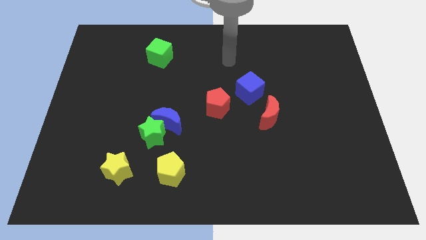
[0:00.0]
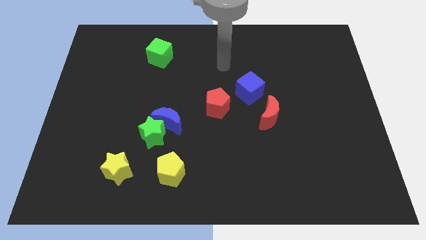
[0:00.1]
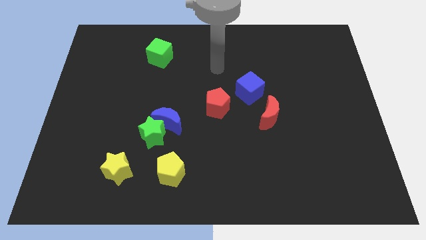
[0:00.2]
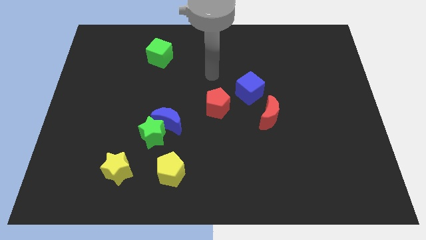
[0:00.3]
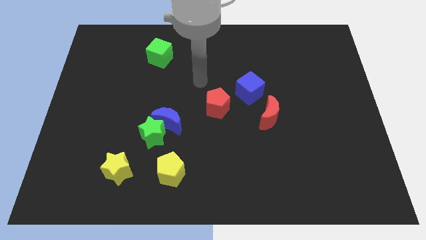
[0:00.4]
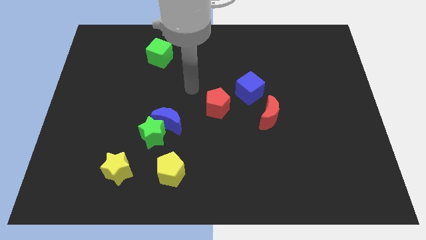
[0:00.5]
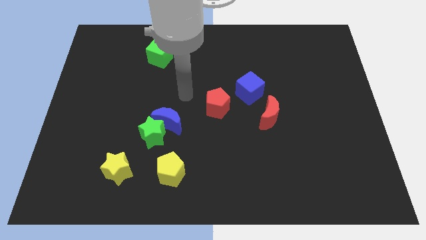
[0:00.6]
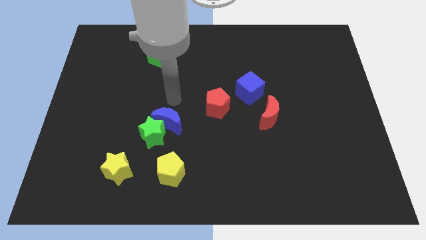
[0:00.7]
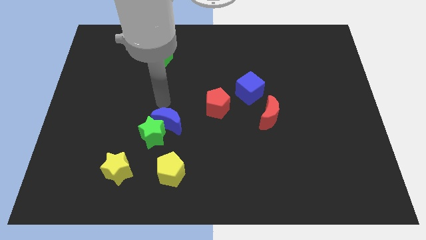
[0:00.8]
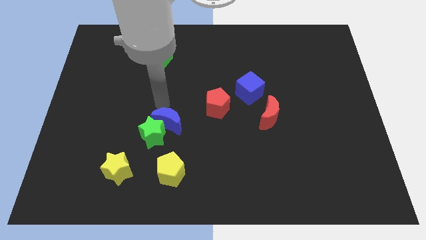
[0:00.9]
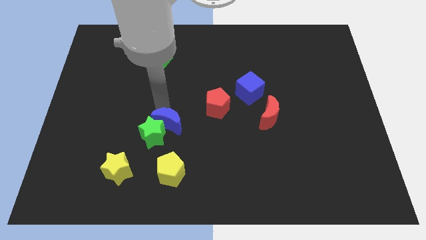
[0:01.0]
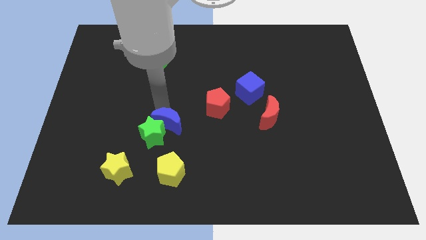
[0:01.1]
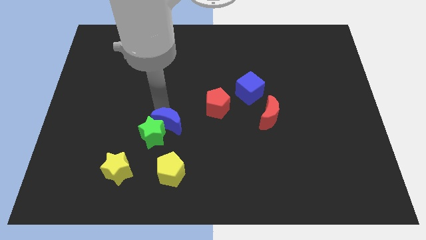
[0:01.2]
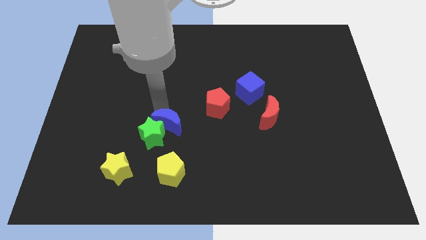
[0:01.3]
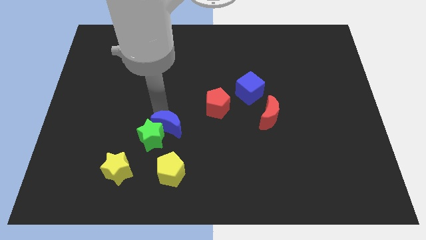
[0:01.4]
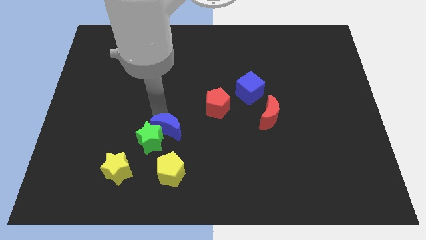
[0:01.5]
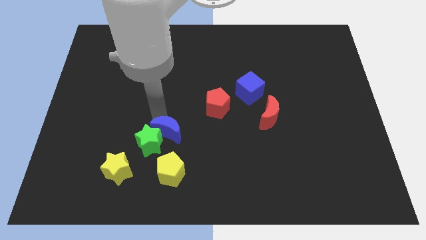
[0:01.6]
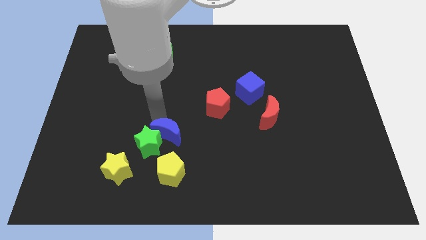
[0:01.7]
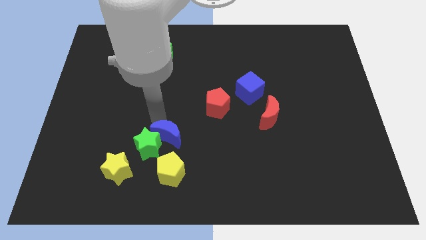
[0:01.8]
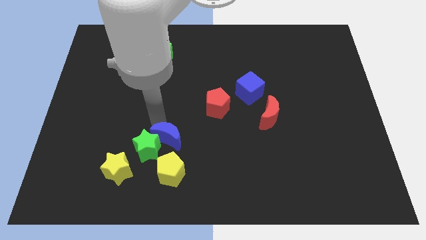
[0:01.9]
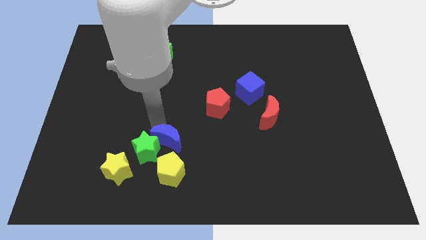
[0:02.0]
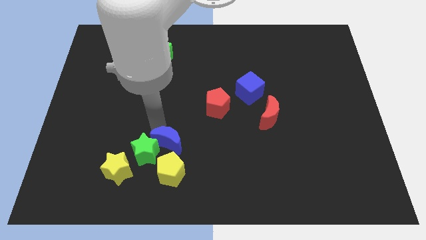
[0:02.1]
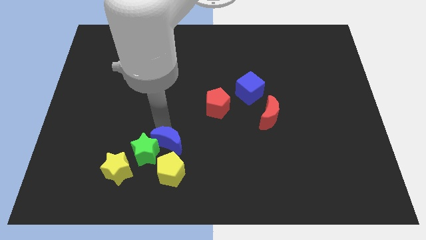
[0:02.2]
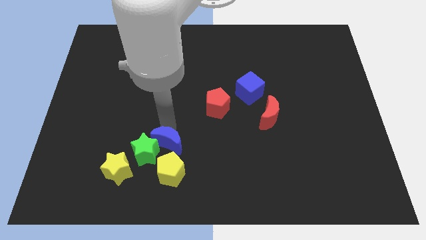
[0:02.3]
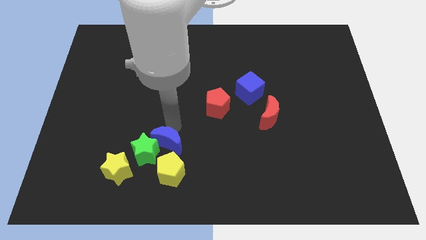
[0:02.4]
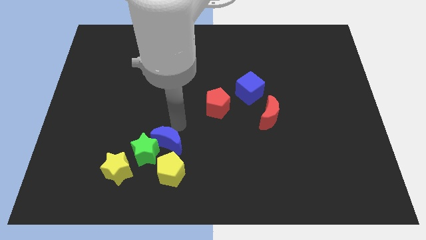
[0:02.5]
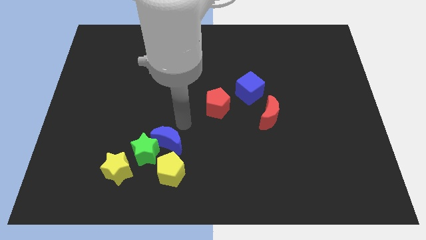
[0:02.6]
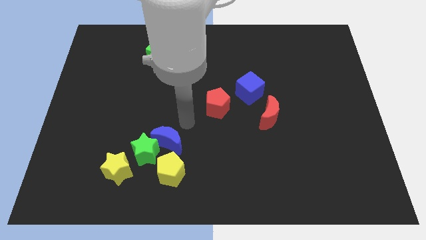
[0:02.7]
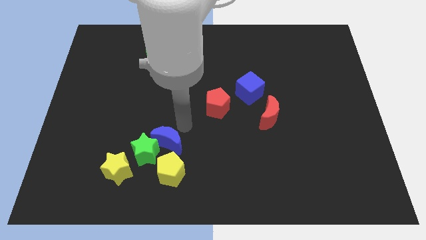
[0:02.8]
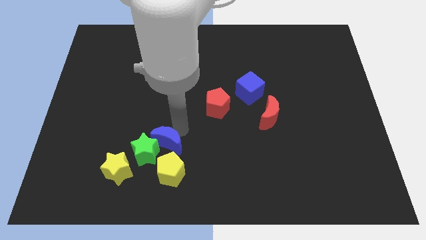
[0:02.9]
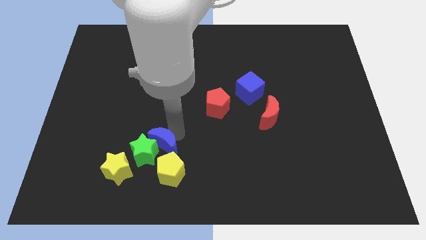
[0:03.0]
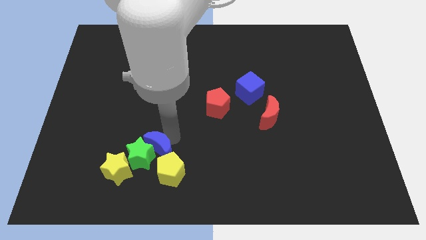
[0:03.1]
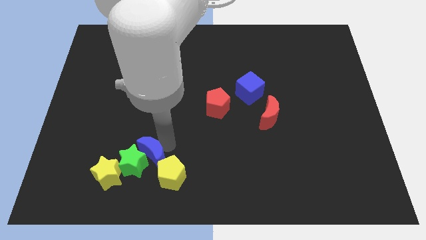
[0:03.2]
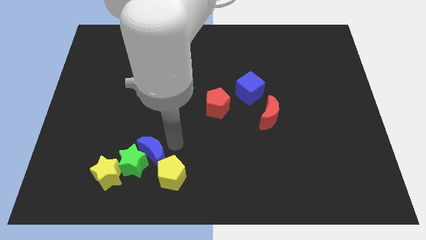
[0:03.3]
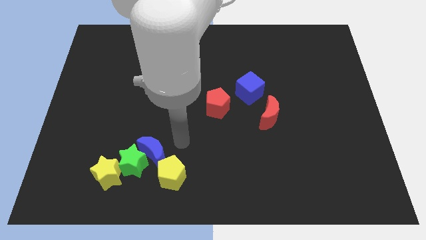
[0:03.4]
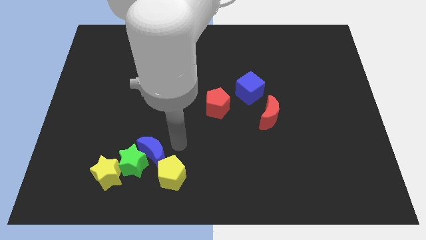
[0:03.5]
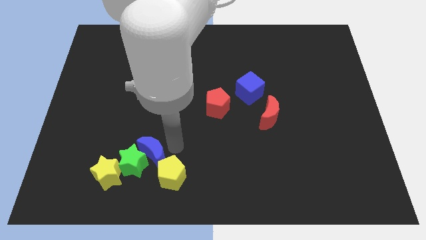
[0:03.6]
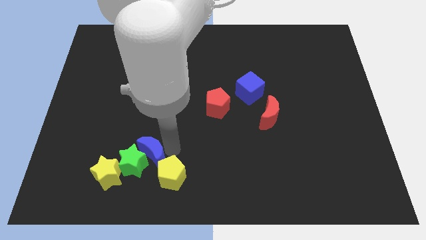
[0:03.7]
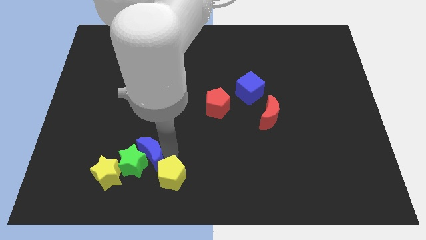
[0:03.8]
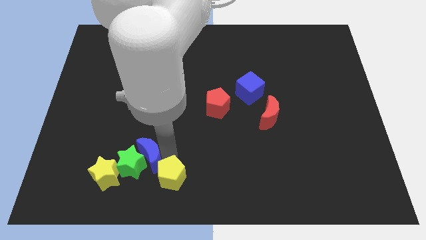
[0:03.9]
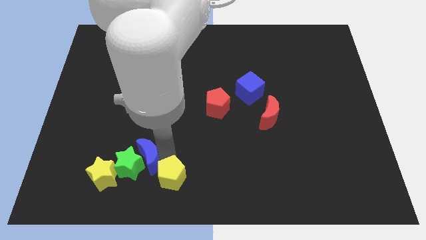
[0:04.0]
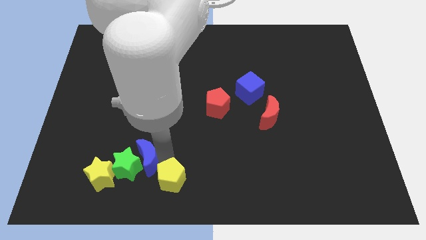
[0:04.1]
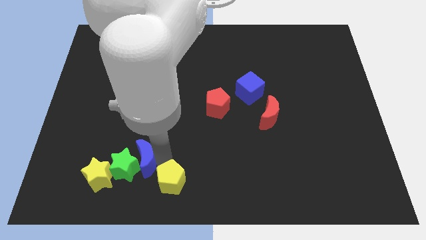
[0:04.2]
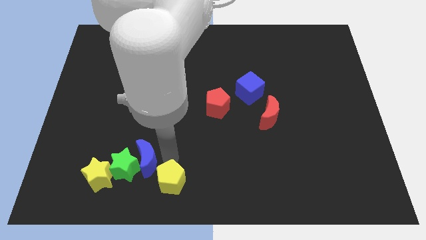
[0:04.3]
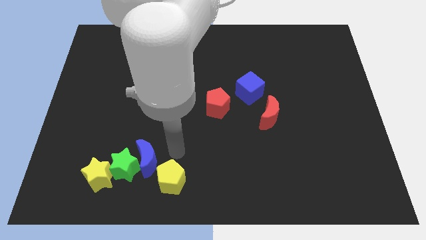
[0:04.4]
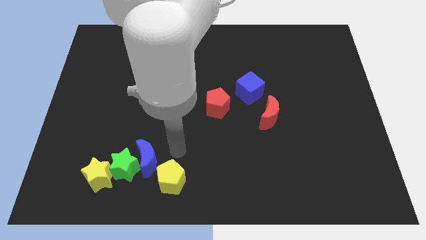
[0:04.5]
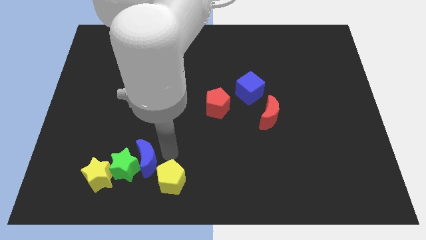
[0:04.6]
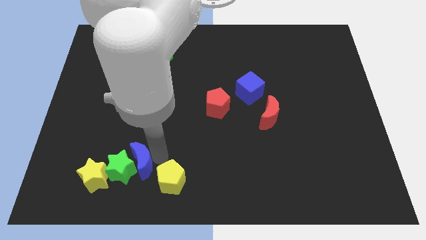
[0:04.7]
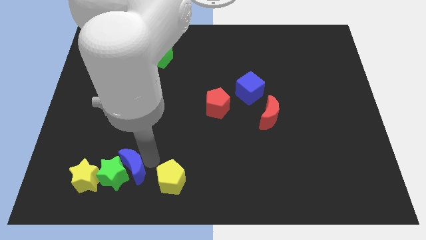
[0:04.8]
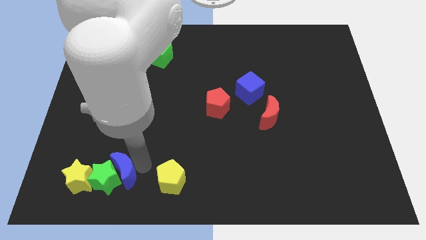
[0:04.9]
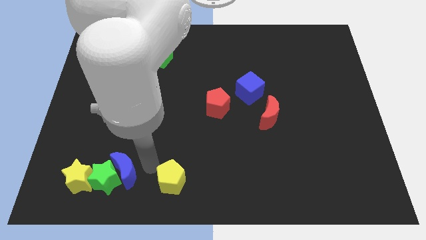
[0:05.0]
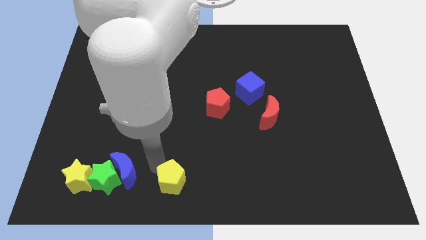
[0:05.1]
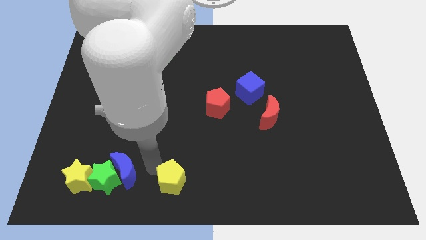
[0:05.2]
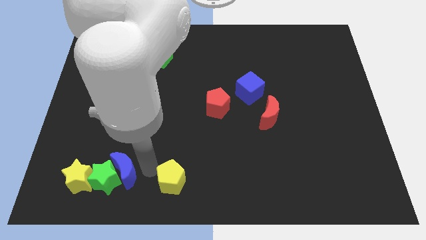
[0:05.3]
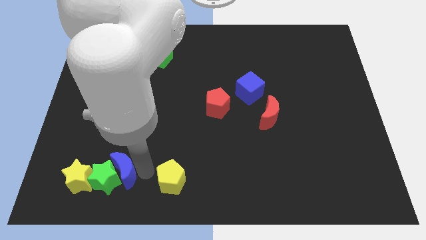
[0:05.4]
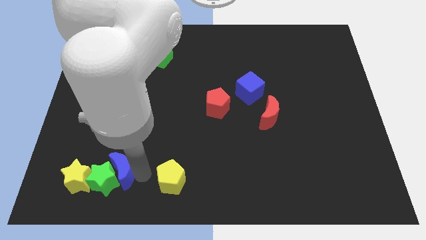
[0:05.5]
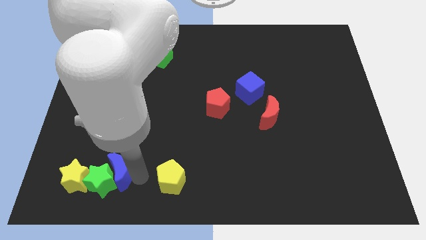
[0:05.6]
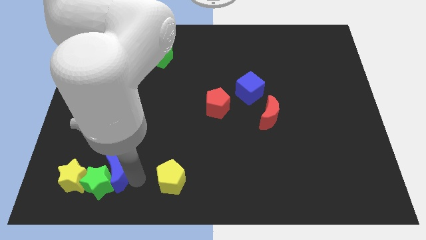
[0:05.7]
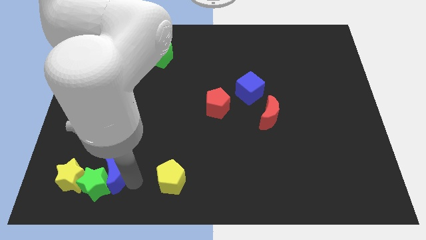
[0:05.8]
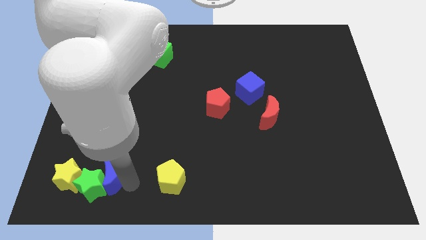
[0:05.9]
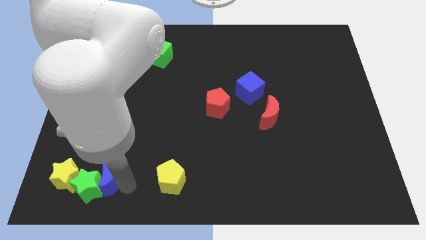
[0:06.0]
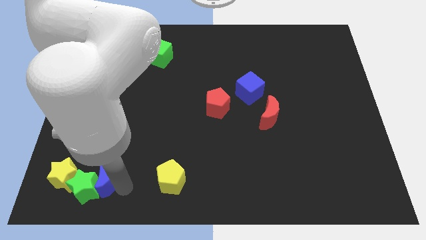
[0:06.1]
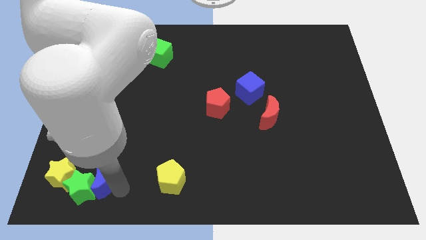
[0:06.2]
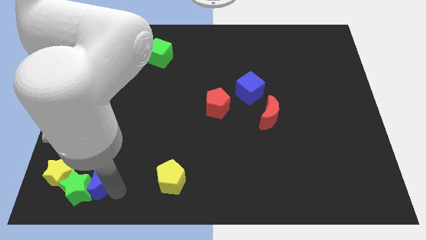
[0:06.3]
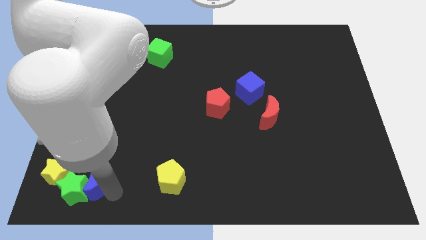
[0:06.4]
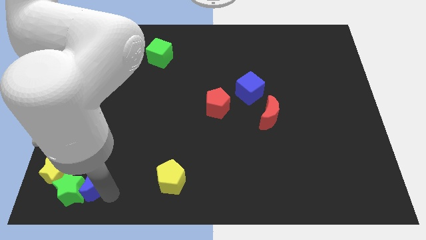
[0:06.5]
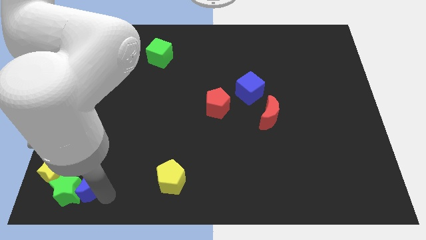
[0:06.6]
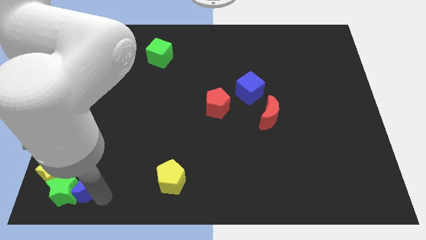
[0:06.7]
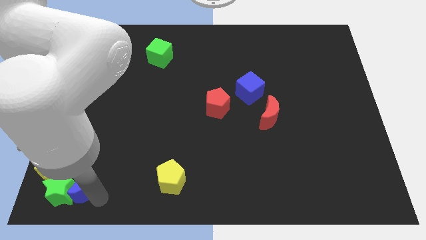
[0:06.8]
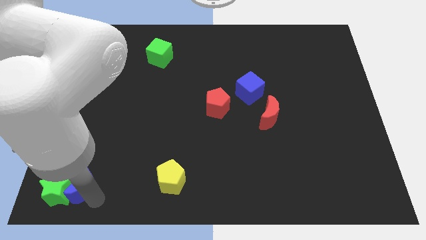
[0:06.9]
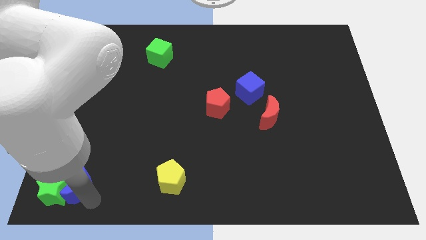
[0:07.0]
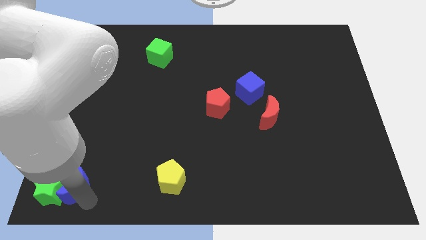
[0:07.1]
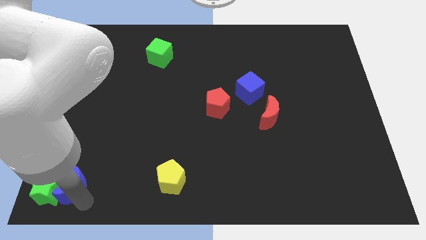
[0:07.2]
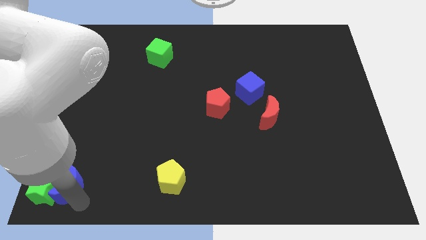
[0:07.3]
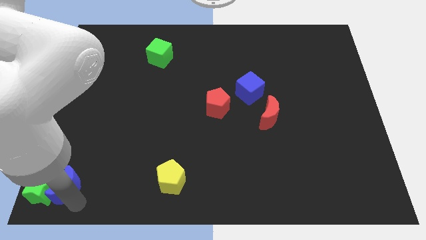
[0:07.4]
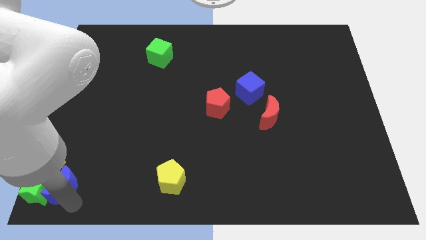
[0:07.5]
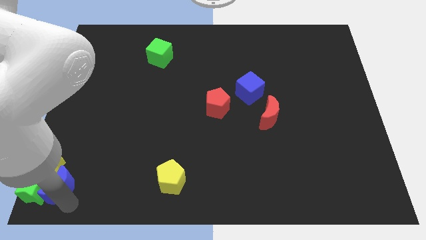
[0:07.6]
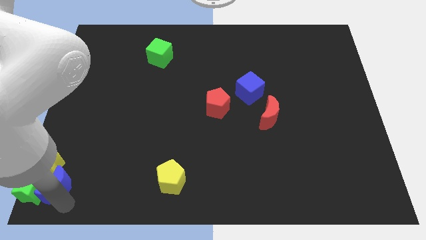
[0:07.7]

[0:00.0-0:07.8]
put the blue moon towards the yellow star

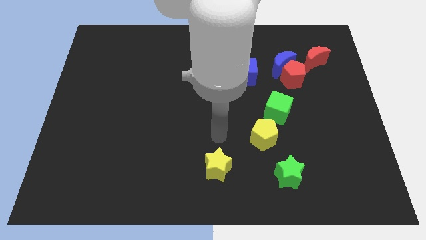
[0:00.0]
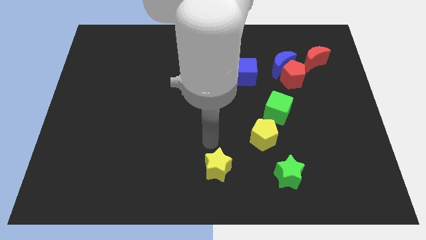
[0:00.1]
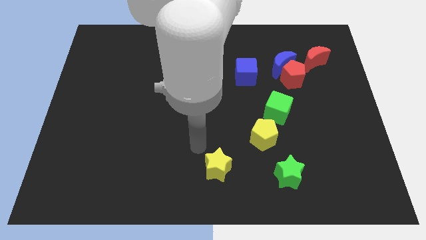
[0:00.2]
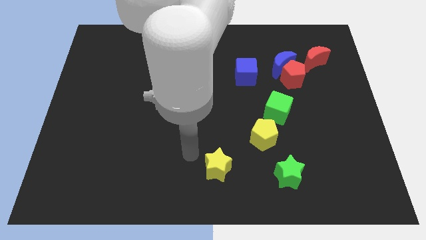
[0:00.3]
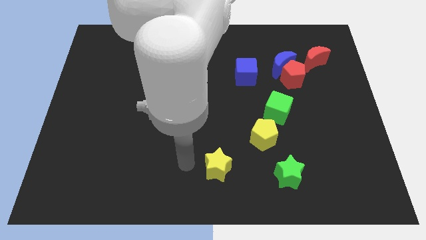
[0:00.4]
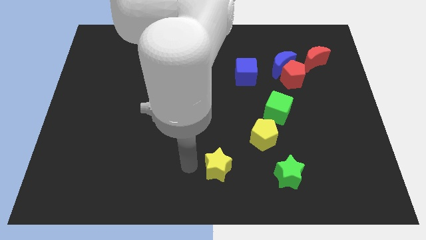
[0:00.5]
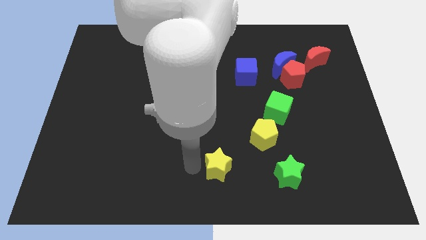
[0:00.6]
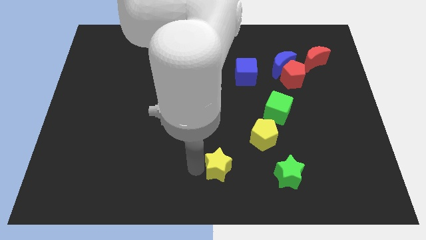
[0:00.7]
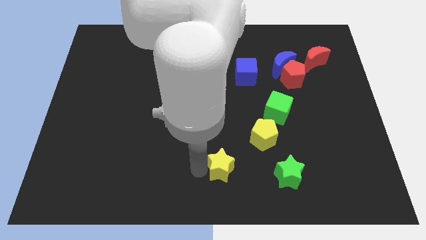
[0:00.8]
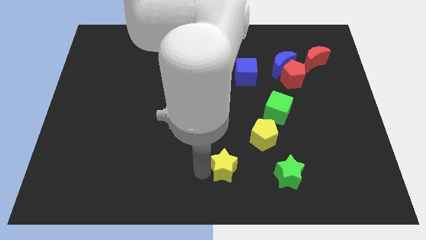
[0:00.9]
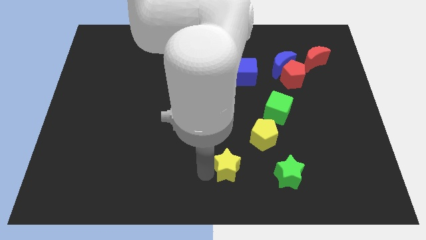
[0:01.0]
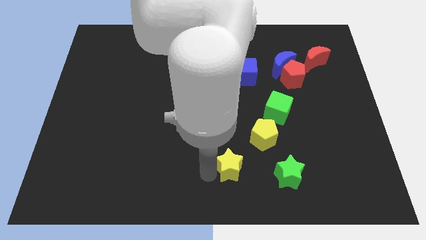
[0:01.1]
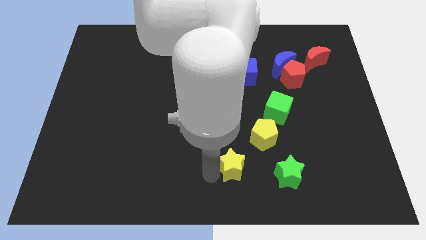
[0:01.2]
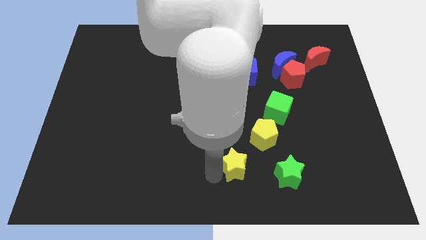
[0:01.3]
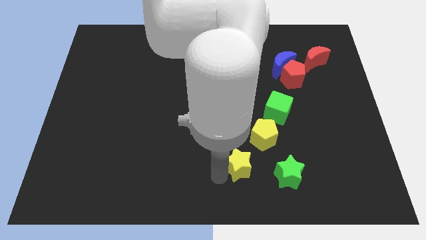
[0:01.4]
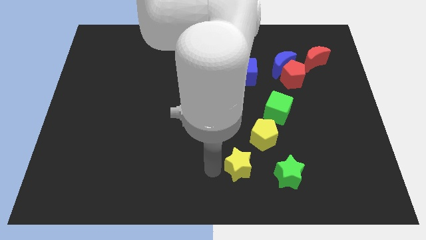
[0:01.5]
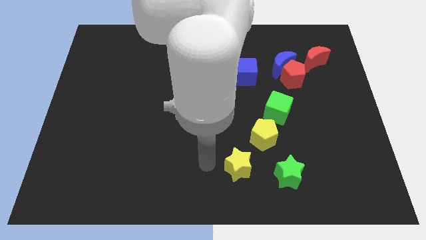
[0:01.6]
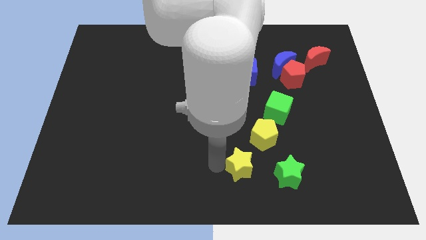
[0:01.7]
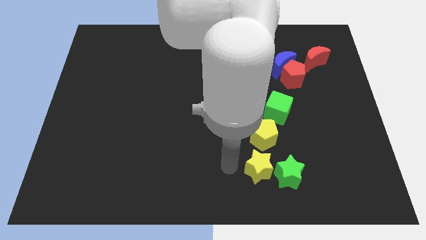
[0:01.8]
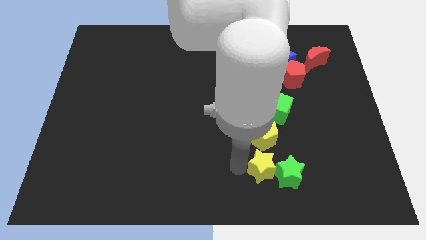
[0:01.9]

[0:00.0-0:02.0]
slide the yellow star to the green star
